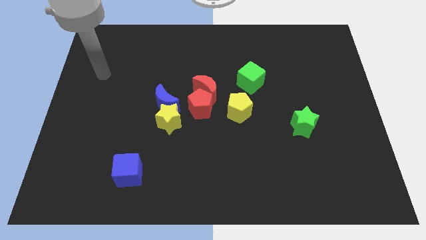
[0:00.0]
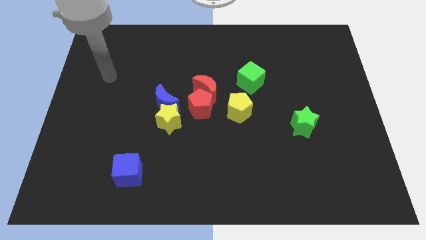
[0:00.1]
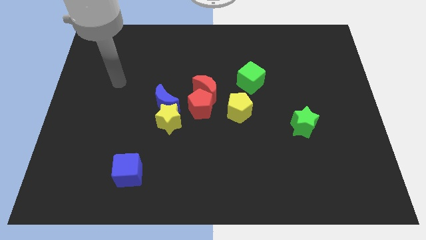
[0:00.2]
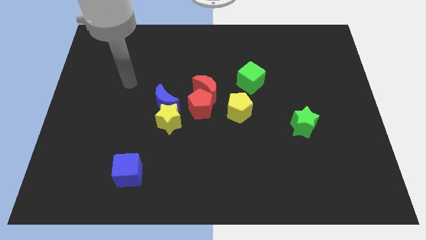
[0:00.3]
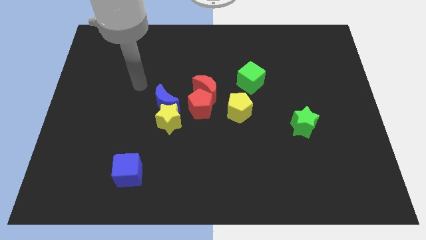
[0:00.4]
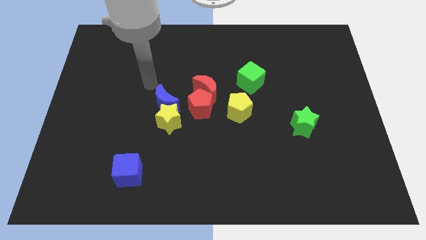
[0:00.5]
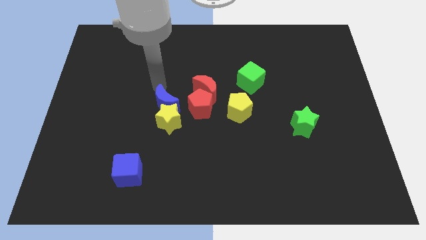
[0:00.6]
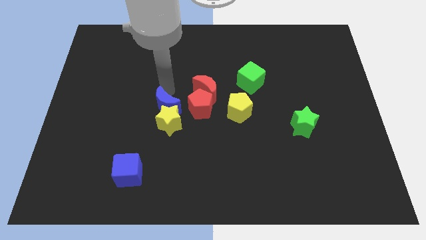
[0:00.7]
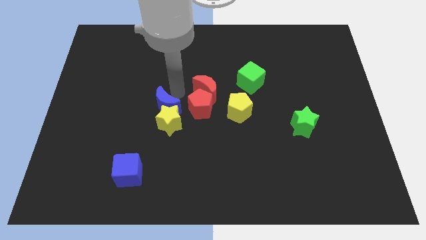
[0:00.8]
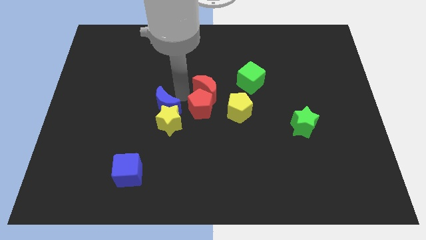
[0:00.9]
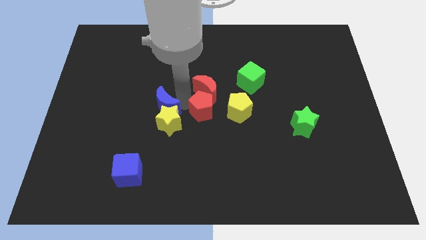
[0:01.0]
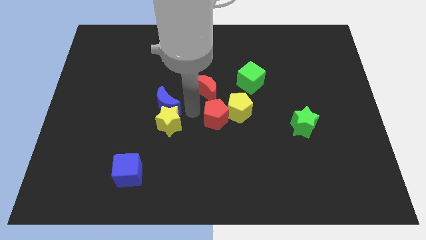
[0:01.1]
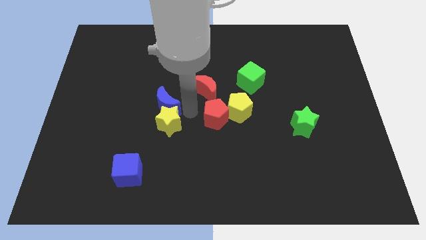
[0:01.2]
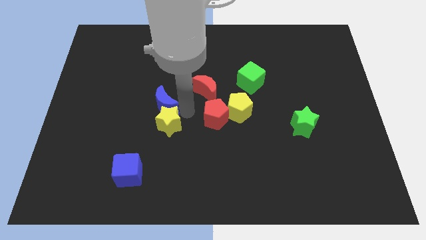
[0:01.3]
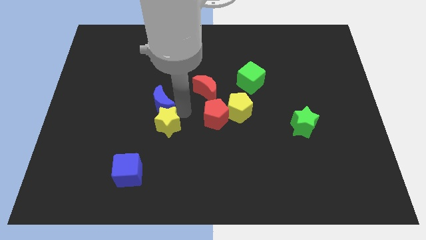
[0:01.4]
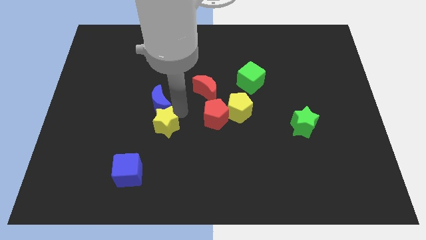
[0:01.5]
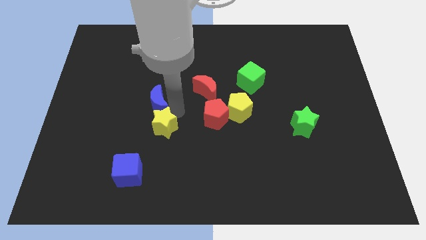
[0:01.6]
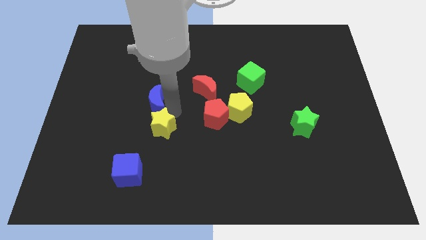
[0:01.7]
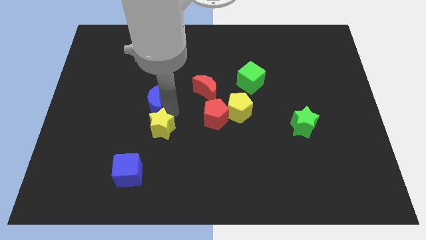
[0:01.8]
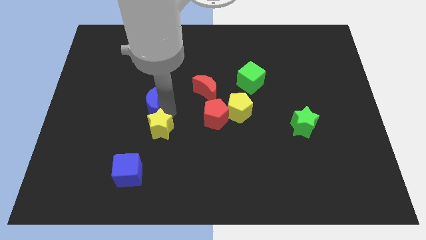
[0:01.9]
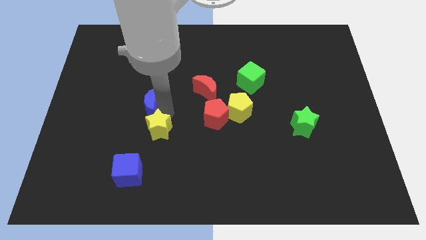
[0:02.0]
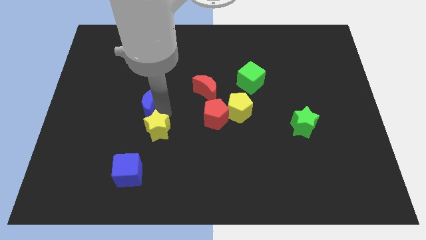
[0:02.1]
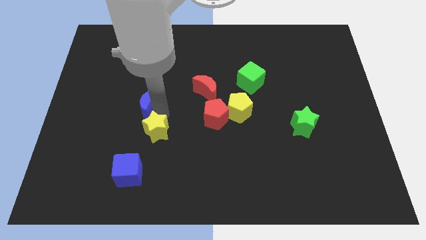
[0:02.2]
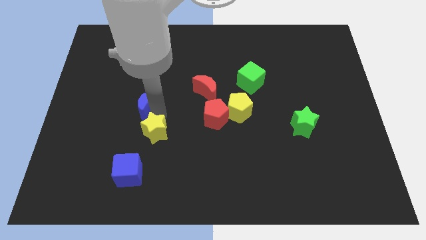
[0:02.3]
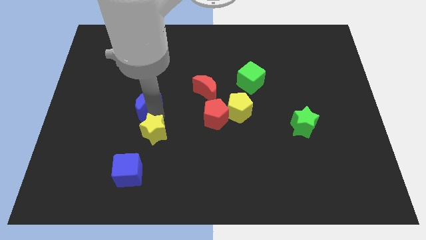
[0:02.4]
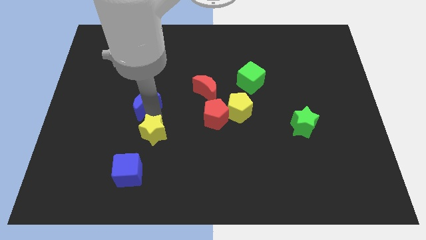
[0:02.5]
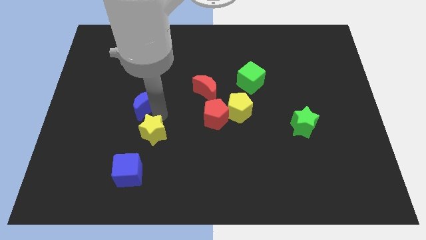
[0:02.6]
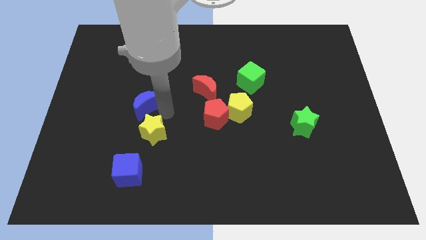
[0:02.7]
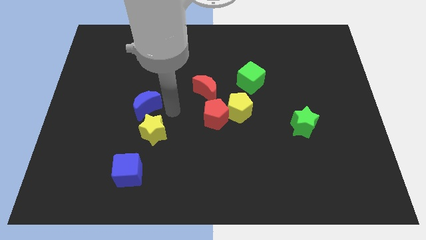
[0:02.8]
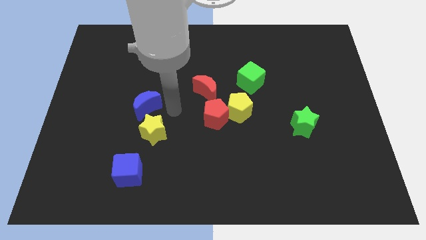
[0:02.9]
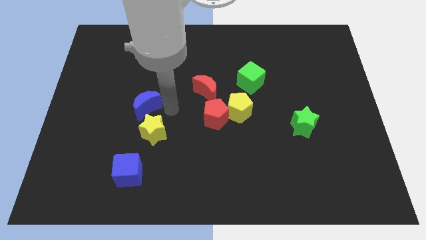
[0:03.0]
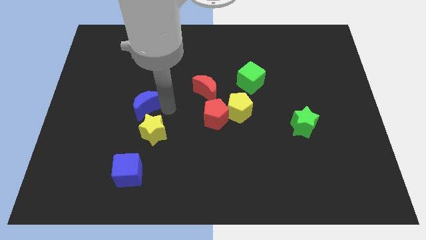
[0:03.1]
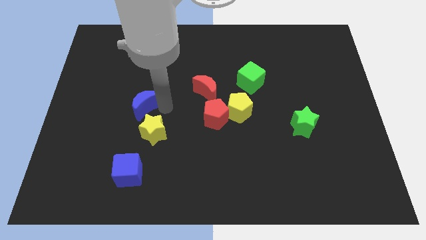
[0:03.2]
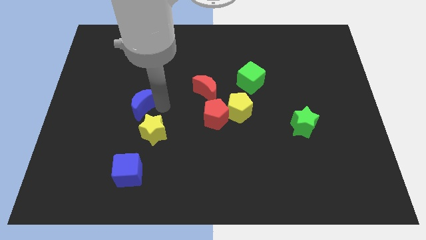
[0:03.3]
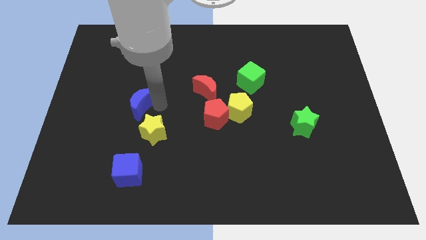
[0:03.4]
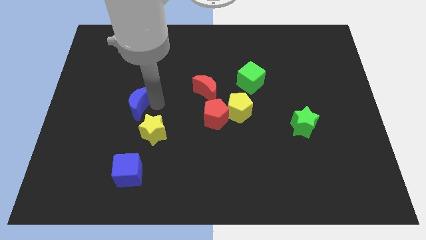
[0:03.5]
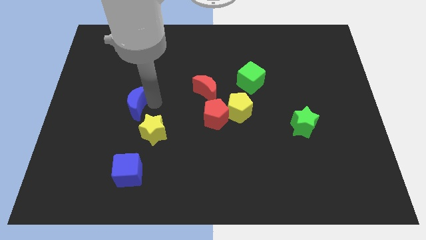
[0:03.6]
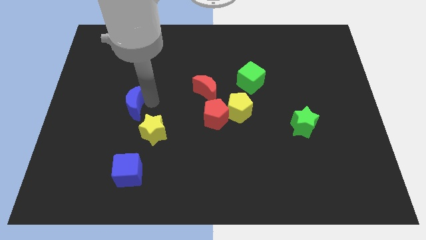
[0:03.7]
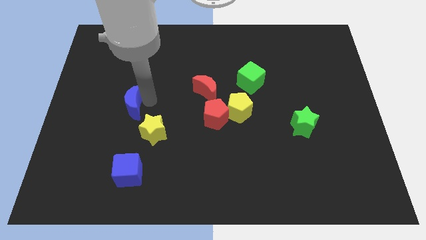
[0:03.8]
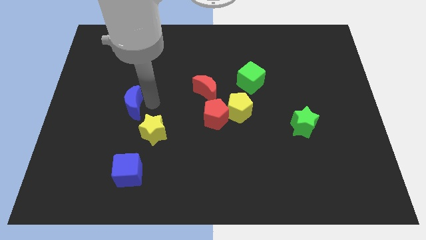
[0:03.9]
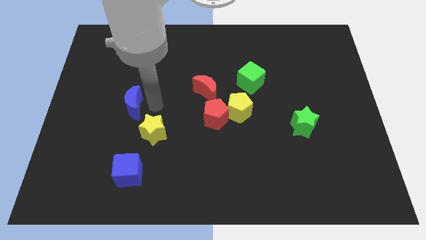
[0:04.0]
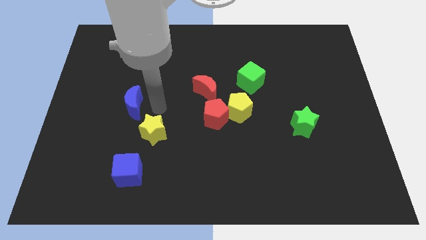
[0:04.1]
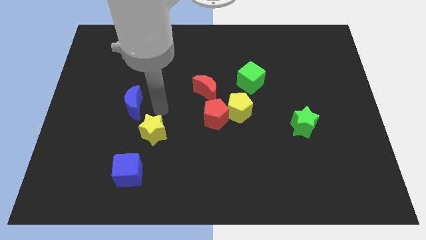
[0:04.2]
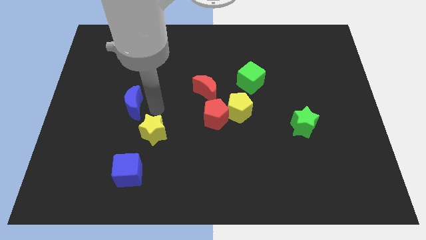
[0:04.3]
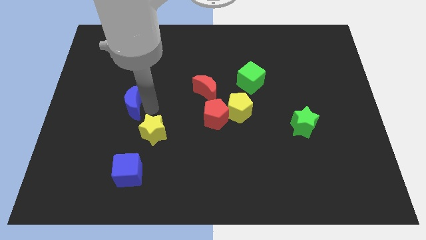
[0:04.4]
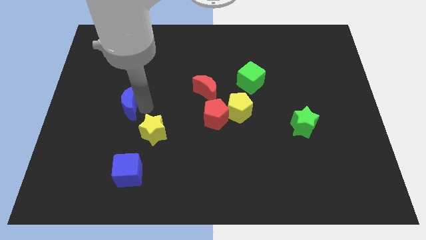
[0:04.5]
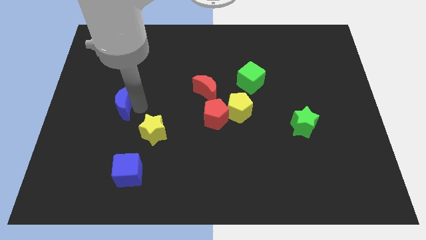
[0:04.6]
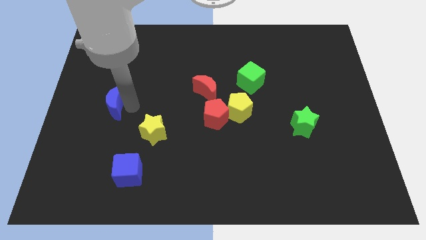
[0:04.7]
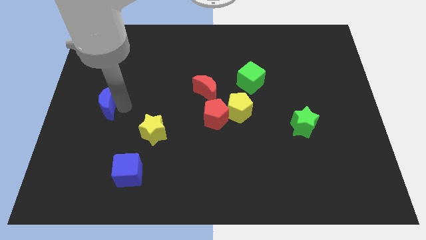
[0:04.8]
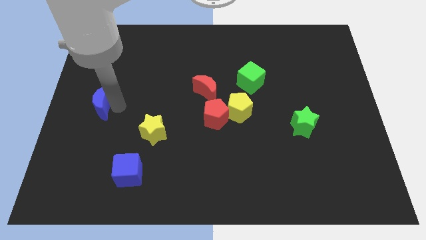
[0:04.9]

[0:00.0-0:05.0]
slide the blue moon to the center left

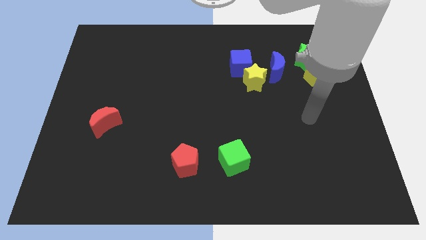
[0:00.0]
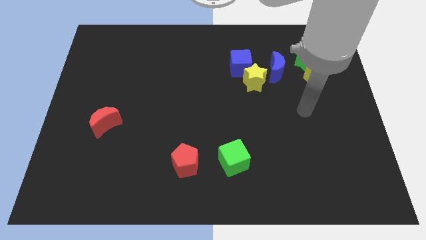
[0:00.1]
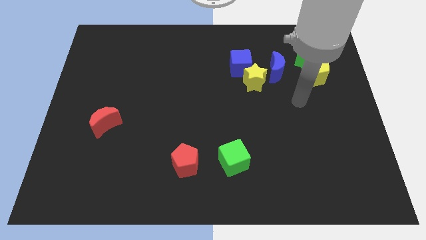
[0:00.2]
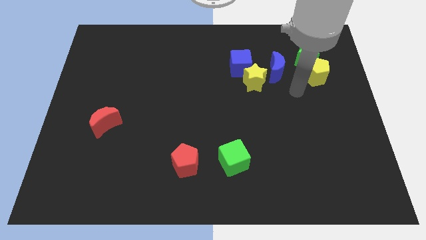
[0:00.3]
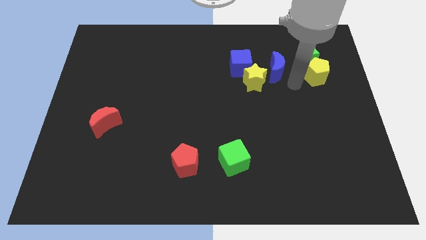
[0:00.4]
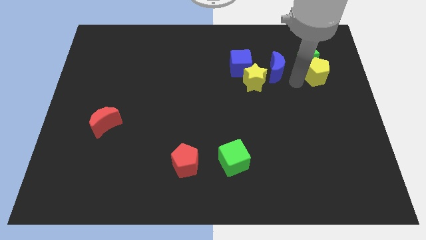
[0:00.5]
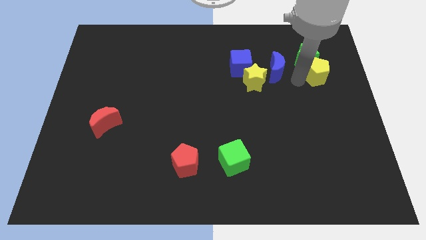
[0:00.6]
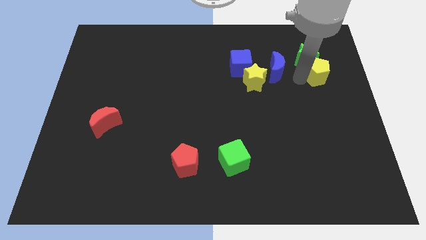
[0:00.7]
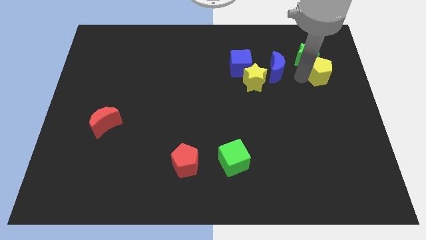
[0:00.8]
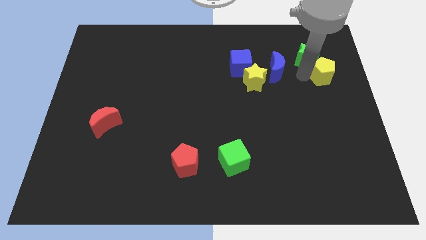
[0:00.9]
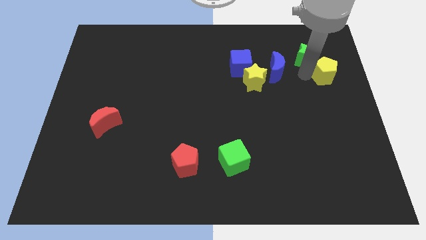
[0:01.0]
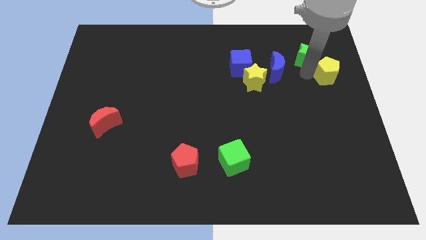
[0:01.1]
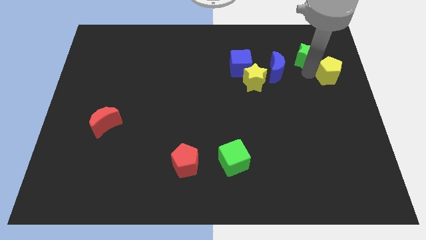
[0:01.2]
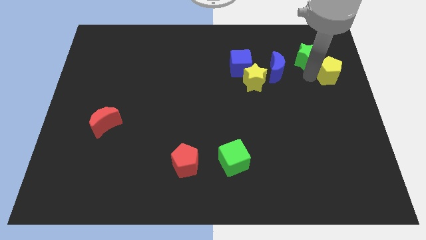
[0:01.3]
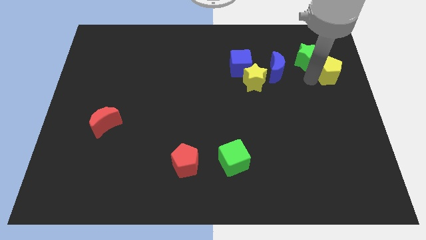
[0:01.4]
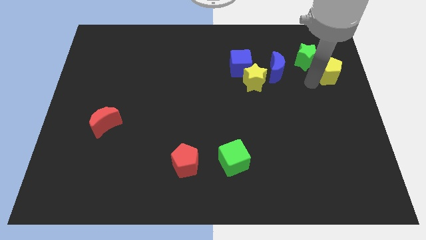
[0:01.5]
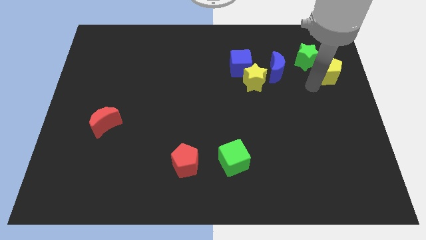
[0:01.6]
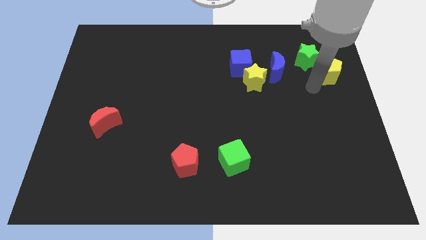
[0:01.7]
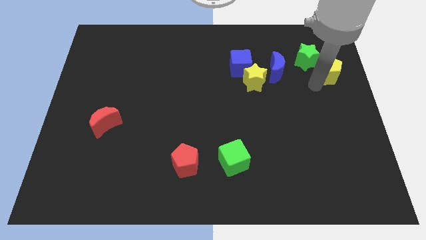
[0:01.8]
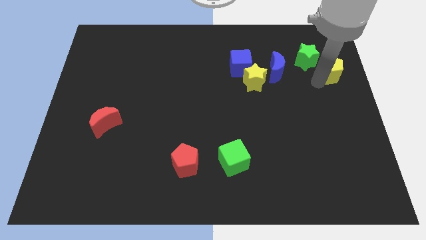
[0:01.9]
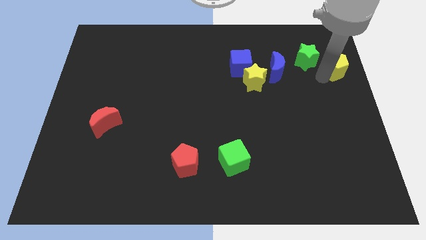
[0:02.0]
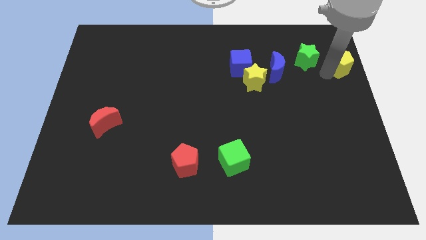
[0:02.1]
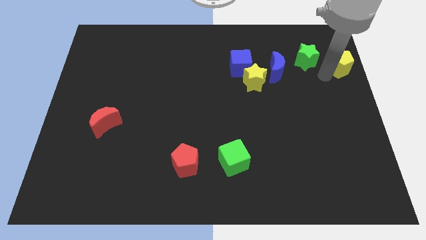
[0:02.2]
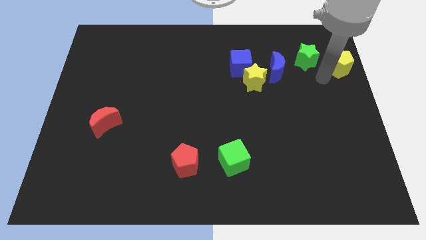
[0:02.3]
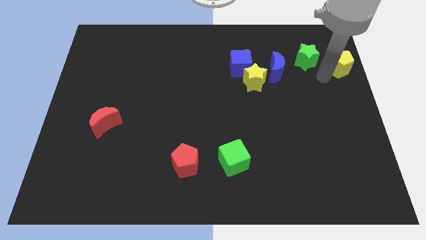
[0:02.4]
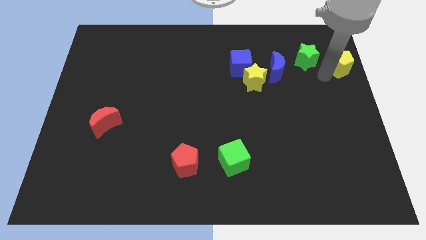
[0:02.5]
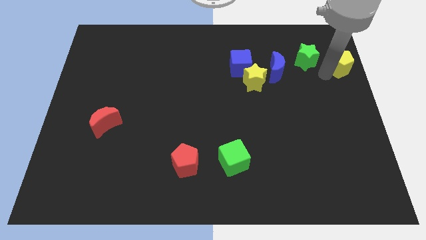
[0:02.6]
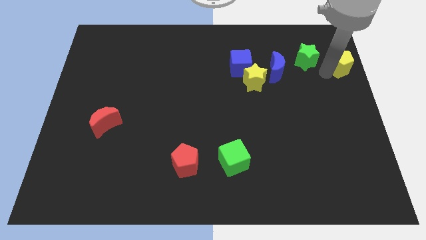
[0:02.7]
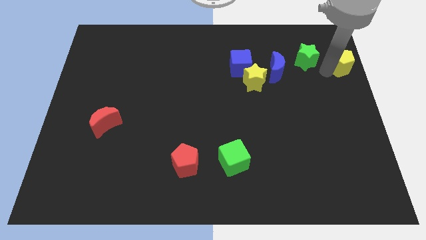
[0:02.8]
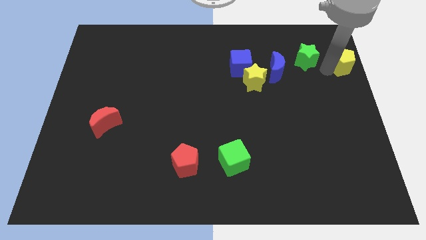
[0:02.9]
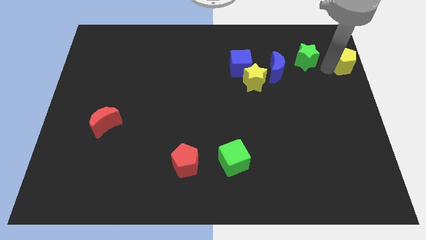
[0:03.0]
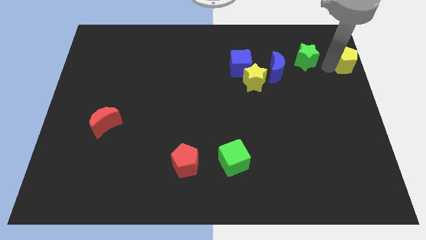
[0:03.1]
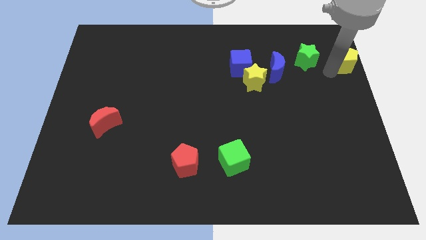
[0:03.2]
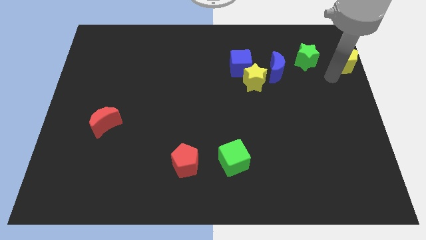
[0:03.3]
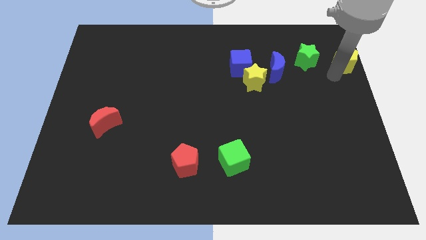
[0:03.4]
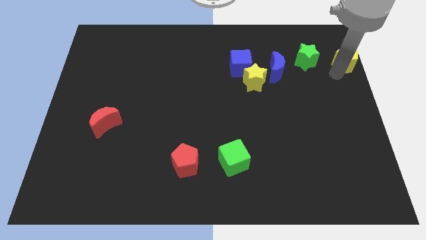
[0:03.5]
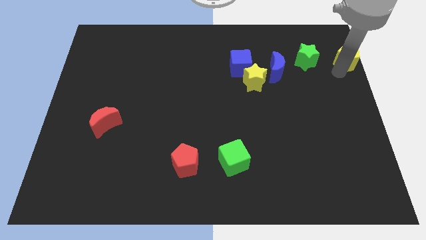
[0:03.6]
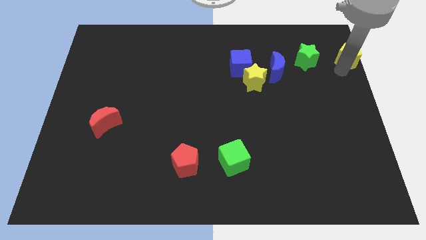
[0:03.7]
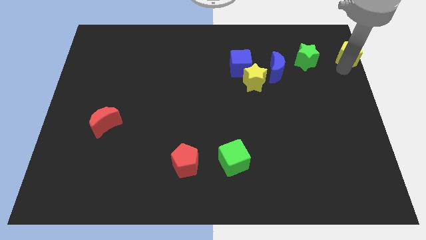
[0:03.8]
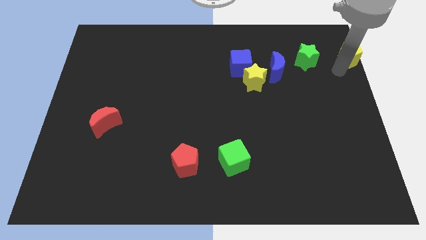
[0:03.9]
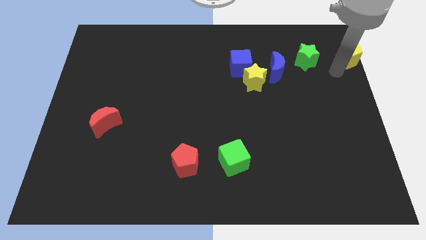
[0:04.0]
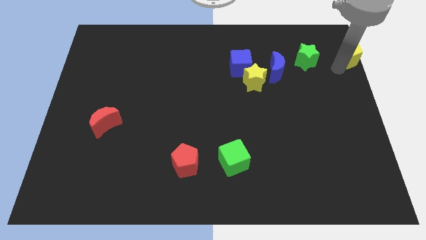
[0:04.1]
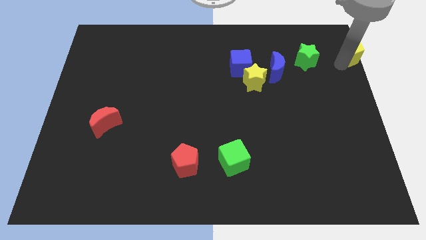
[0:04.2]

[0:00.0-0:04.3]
put the yellow pentagon to the top right
